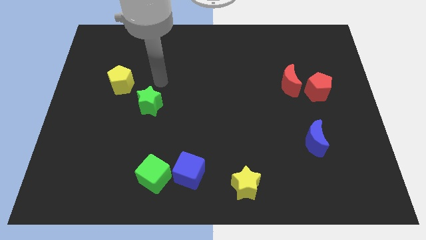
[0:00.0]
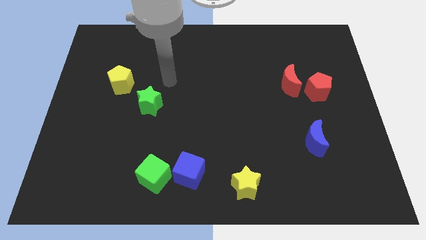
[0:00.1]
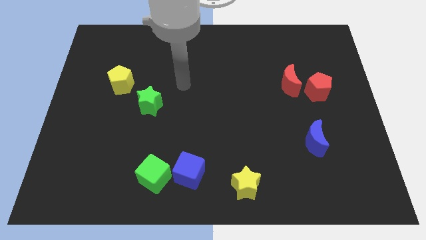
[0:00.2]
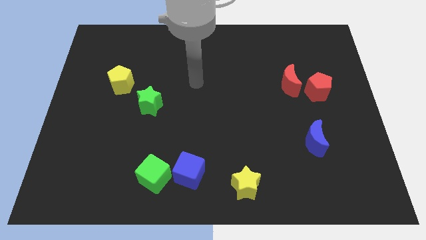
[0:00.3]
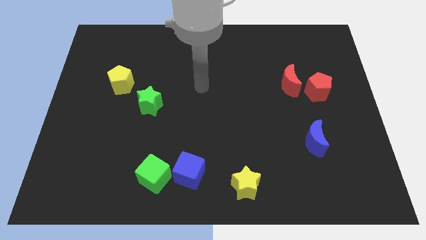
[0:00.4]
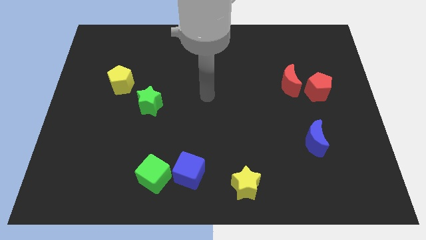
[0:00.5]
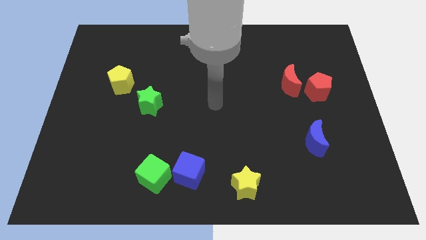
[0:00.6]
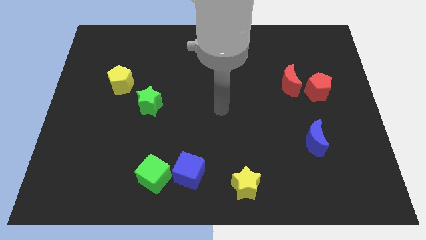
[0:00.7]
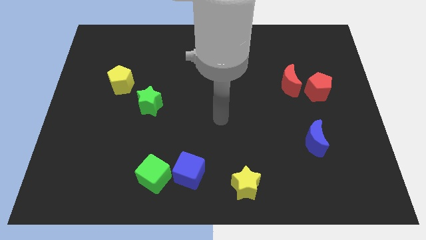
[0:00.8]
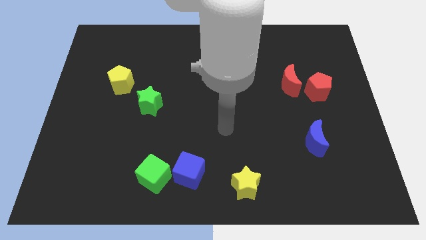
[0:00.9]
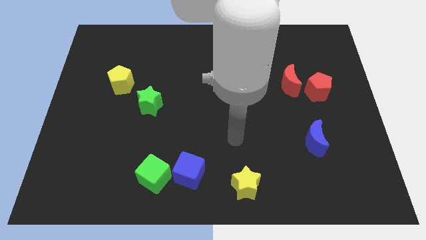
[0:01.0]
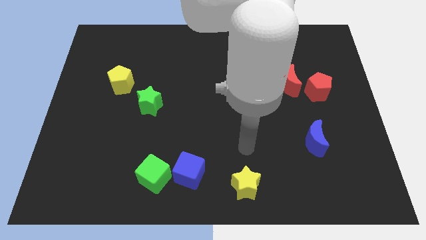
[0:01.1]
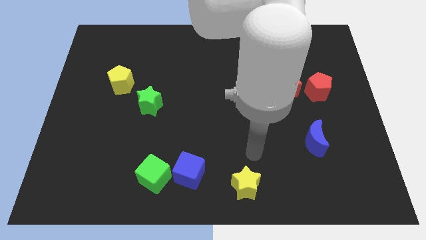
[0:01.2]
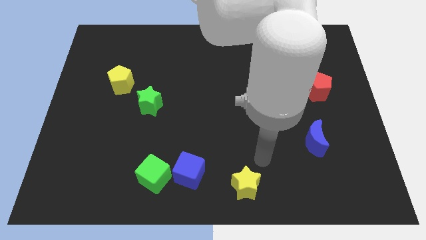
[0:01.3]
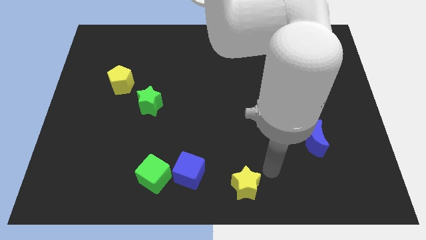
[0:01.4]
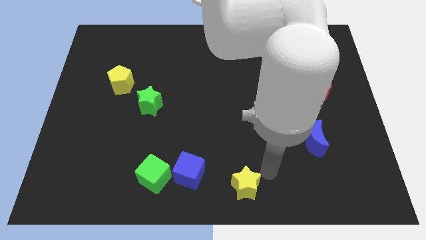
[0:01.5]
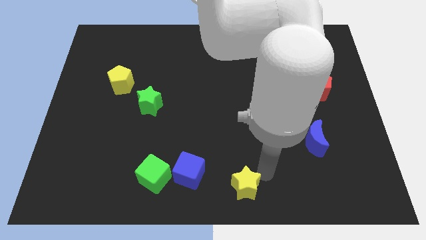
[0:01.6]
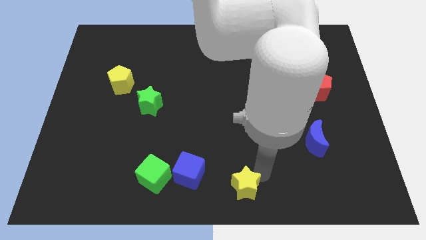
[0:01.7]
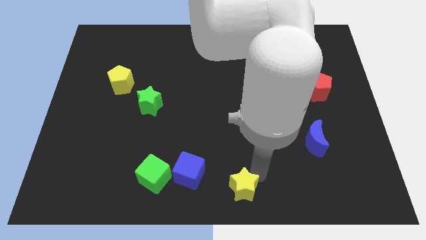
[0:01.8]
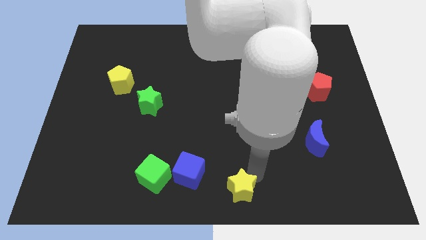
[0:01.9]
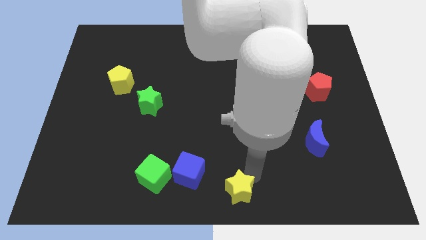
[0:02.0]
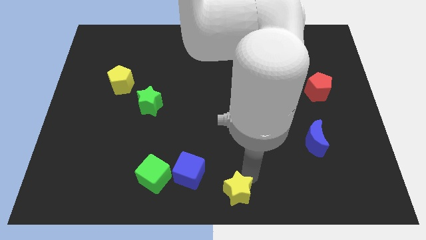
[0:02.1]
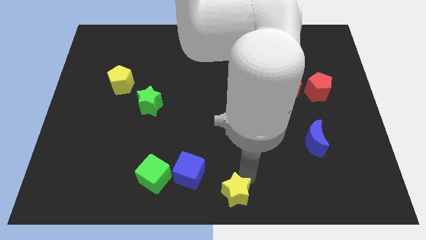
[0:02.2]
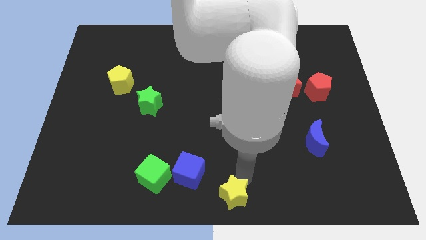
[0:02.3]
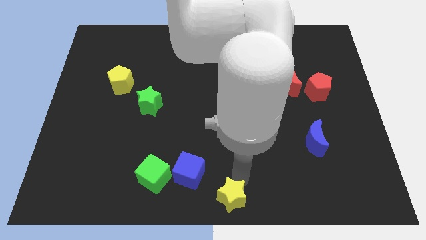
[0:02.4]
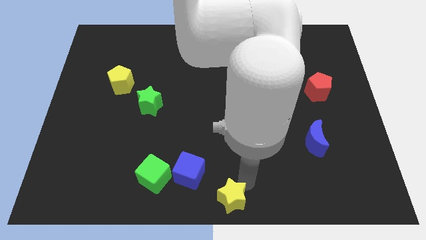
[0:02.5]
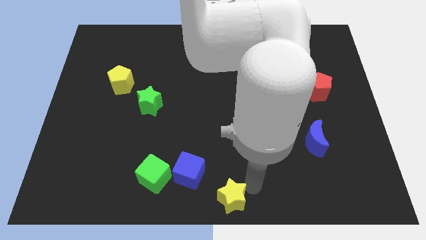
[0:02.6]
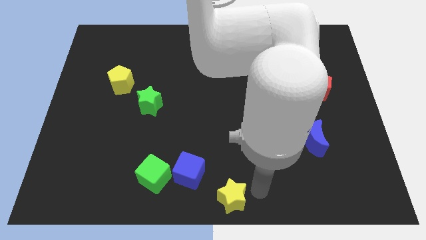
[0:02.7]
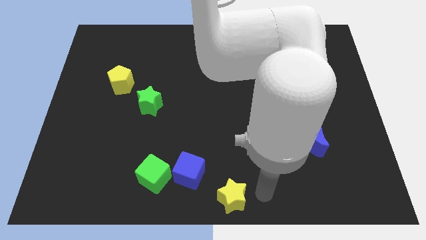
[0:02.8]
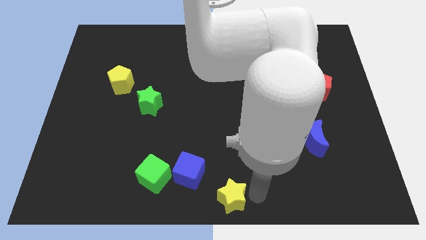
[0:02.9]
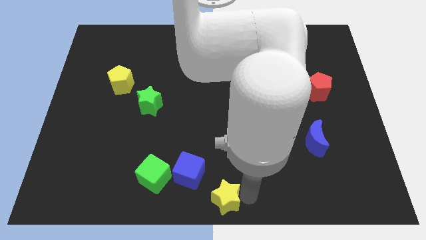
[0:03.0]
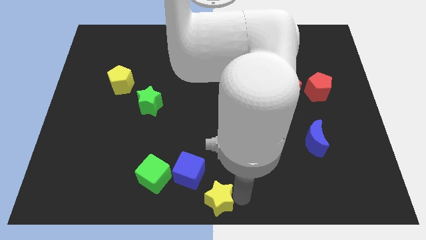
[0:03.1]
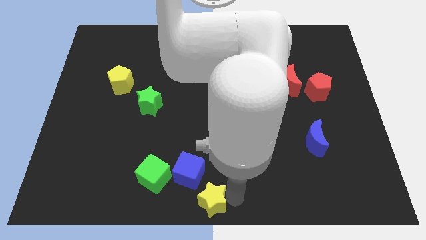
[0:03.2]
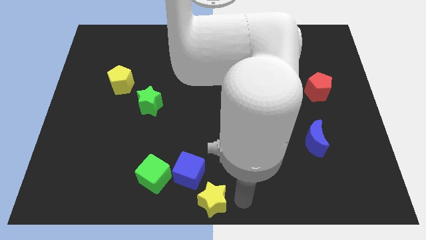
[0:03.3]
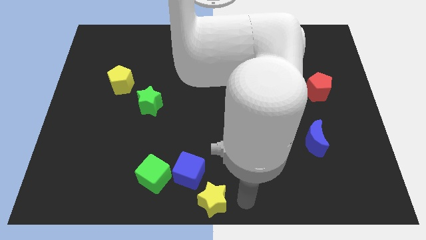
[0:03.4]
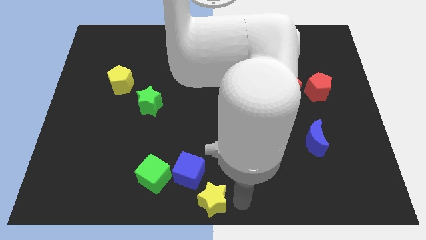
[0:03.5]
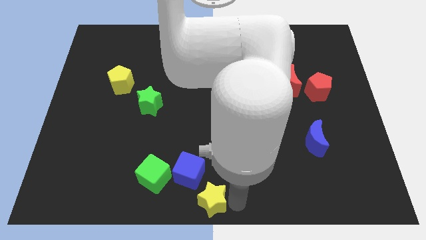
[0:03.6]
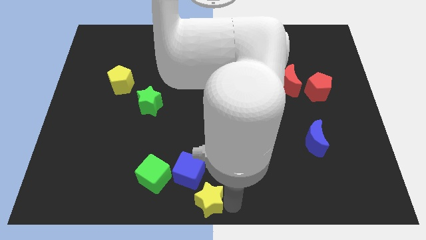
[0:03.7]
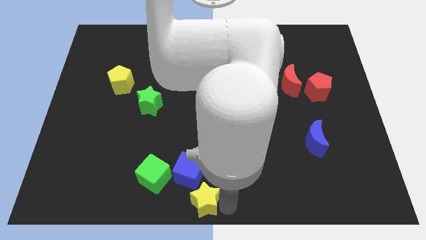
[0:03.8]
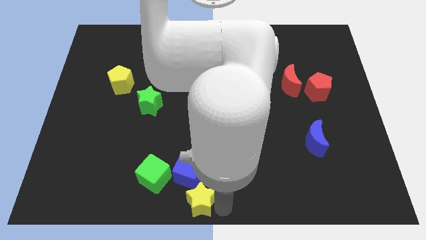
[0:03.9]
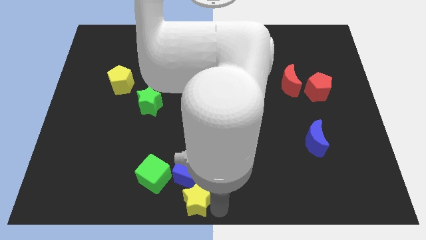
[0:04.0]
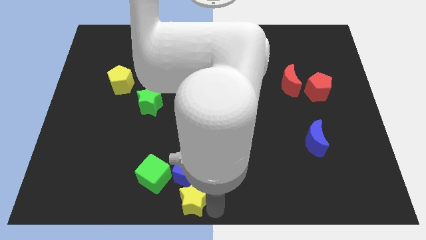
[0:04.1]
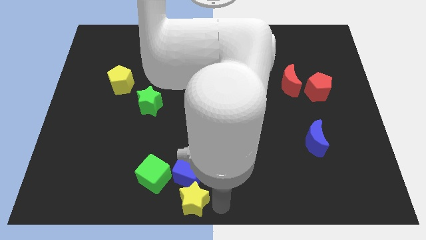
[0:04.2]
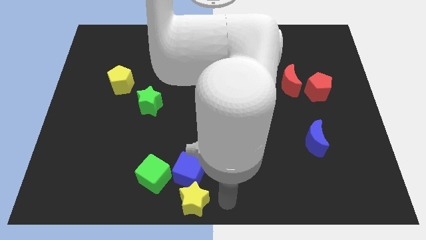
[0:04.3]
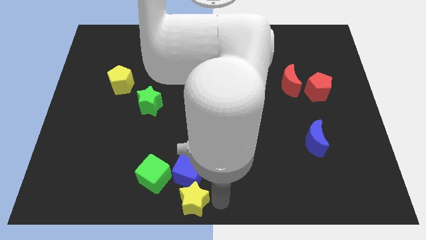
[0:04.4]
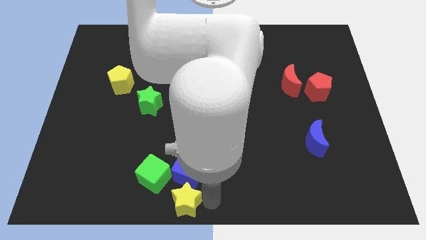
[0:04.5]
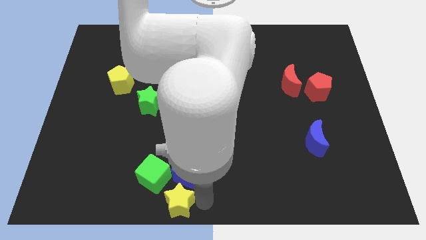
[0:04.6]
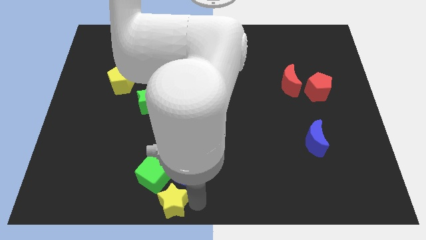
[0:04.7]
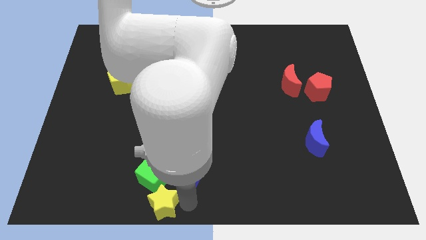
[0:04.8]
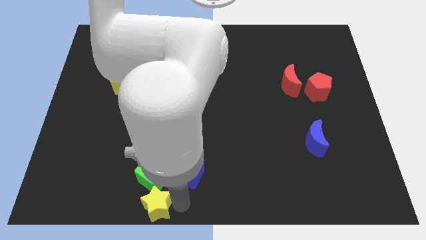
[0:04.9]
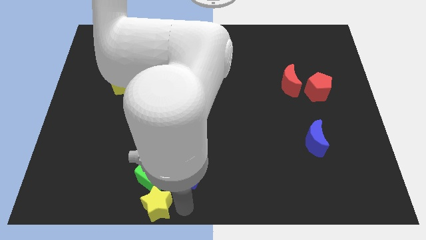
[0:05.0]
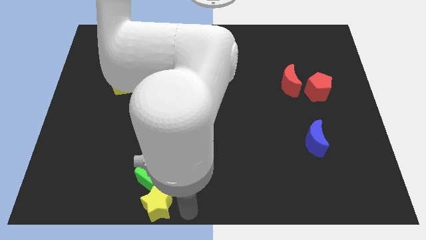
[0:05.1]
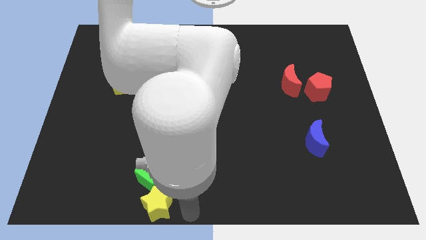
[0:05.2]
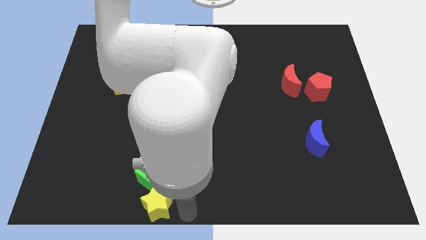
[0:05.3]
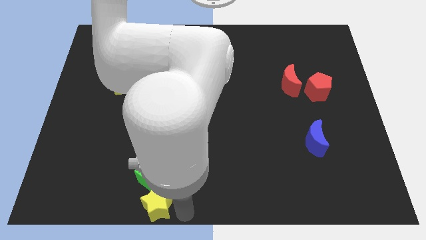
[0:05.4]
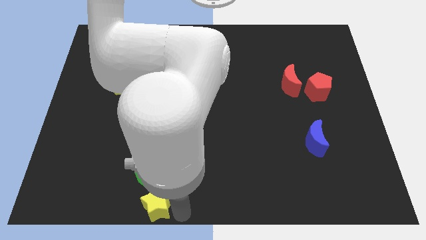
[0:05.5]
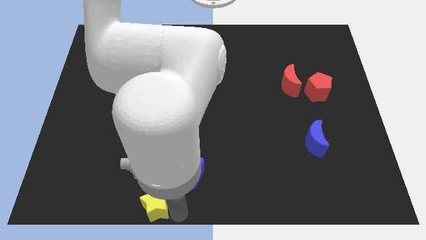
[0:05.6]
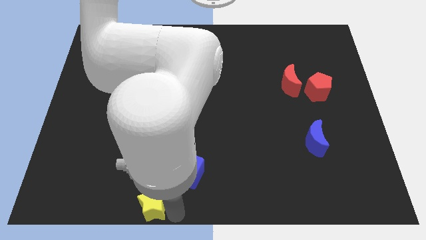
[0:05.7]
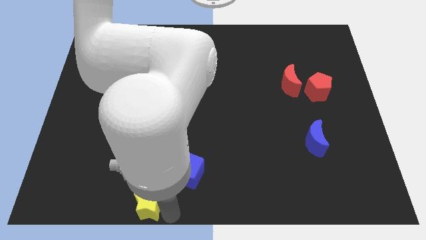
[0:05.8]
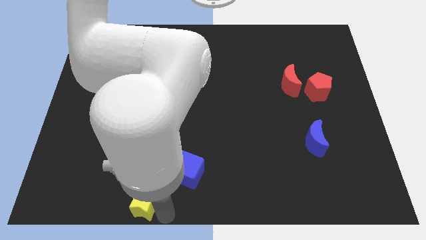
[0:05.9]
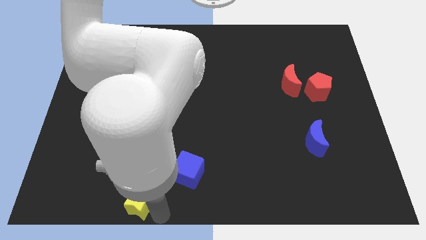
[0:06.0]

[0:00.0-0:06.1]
slide the yellow star left

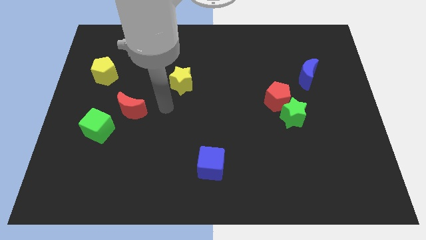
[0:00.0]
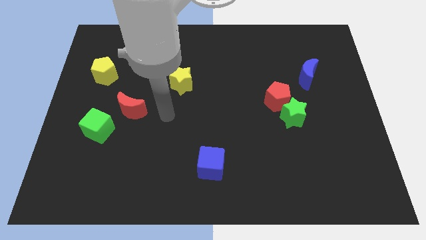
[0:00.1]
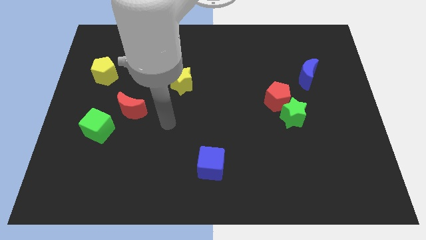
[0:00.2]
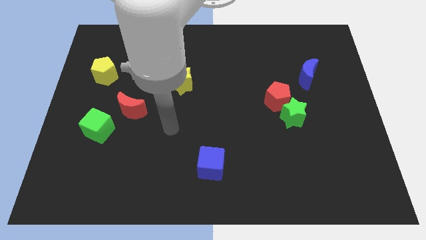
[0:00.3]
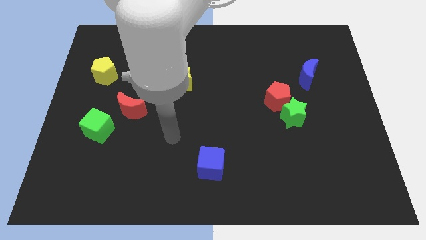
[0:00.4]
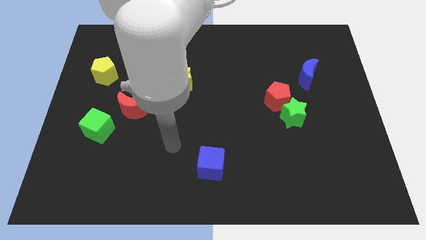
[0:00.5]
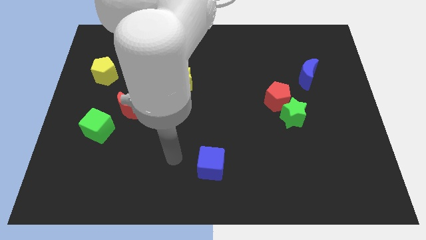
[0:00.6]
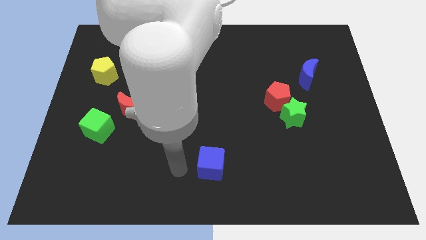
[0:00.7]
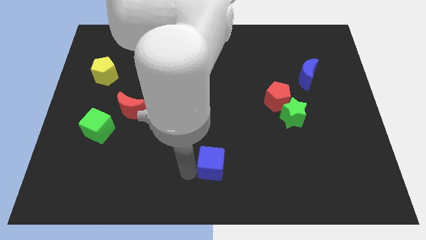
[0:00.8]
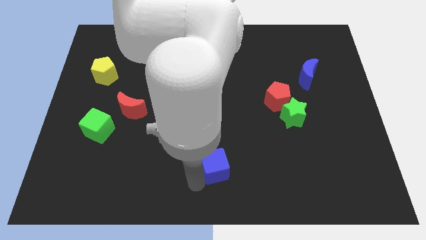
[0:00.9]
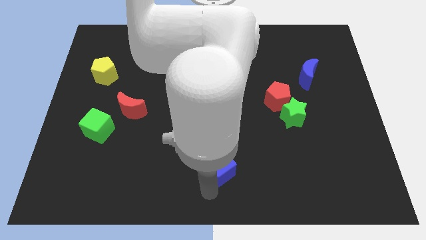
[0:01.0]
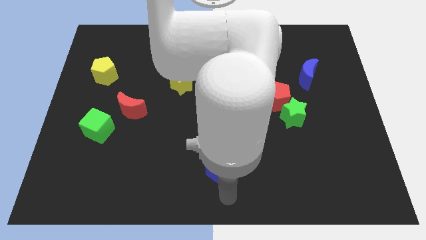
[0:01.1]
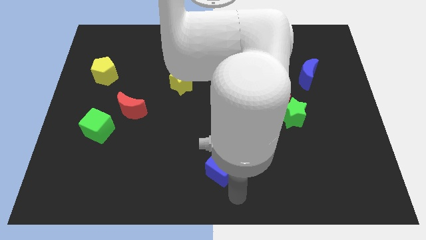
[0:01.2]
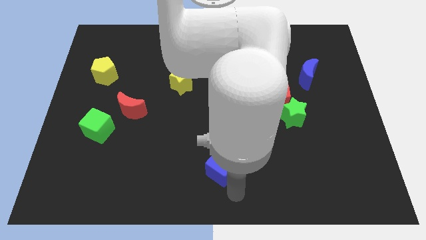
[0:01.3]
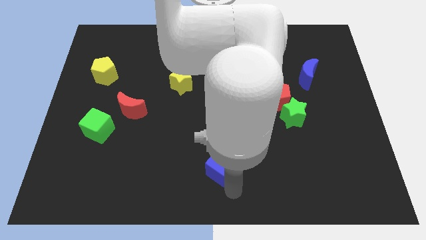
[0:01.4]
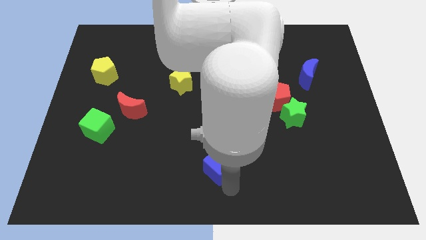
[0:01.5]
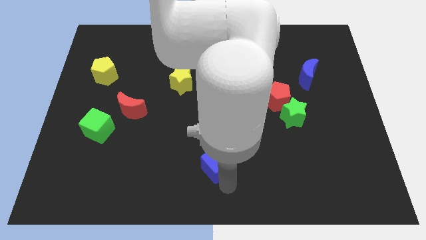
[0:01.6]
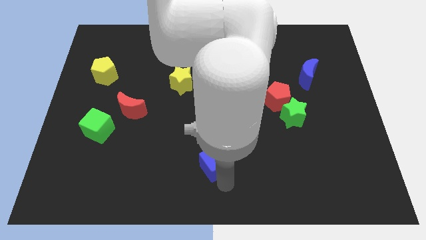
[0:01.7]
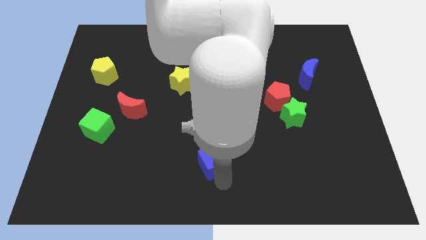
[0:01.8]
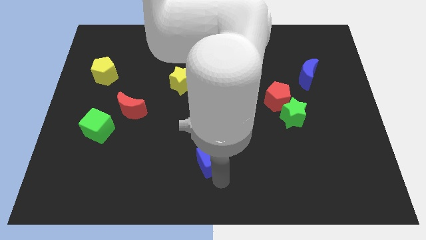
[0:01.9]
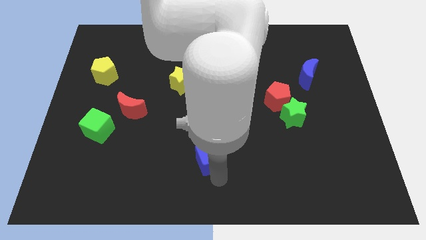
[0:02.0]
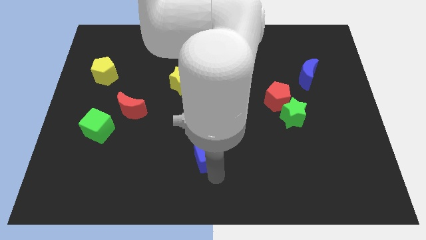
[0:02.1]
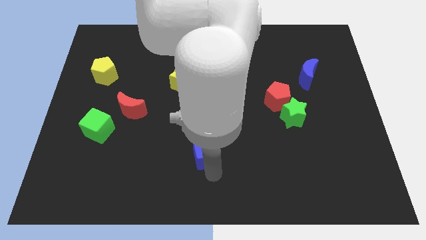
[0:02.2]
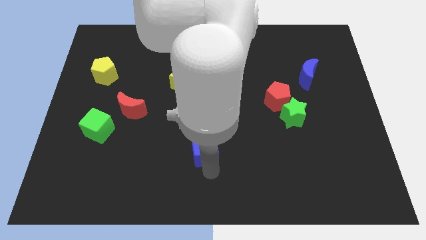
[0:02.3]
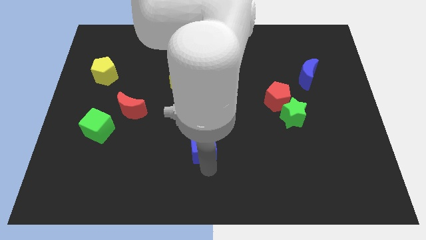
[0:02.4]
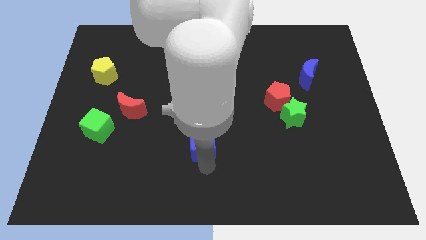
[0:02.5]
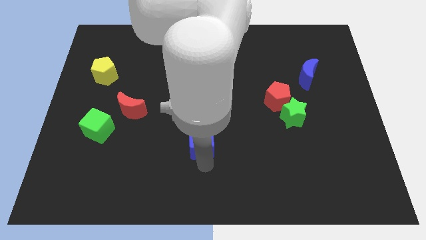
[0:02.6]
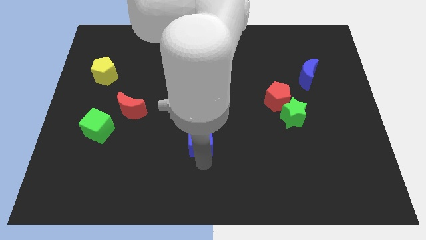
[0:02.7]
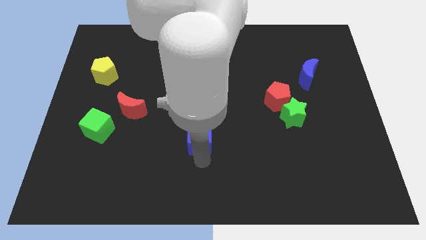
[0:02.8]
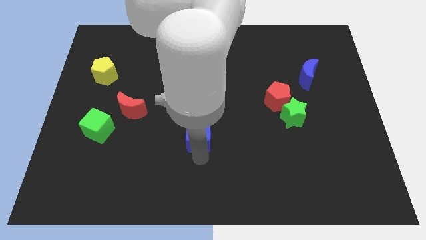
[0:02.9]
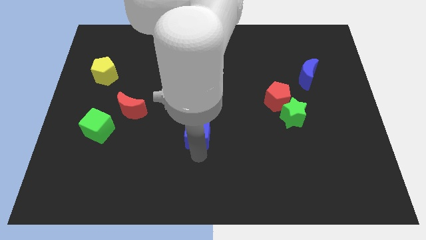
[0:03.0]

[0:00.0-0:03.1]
slightly slide the blue cube up
